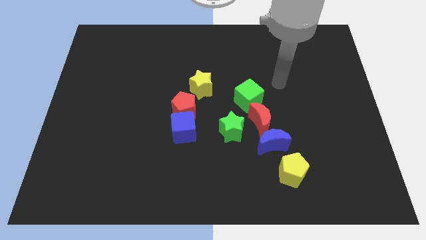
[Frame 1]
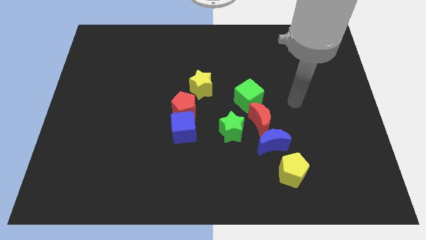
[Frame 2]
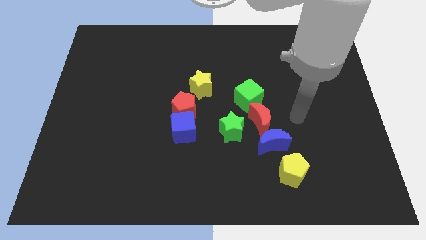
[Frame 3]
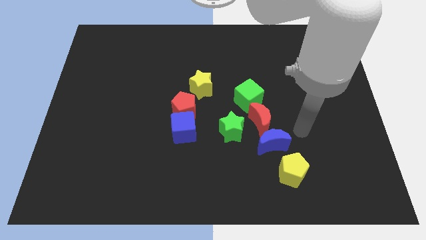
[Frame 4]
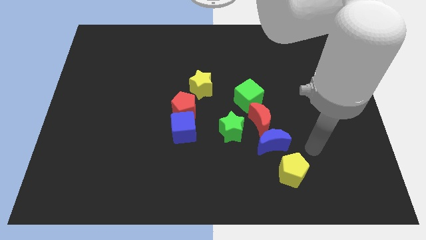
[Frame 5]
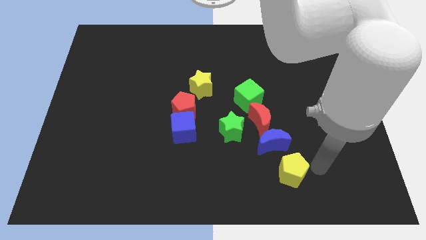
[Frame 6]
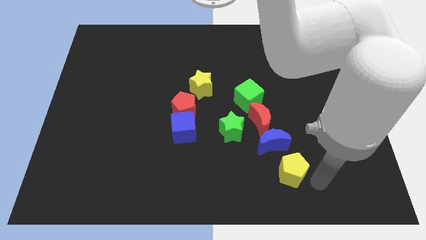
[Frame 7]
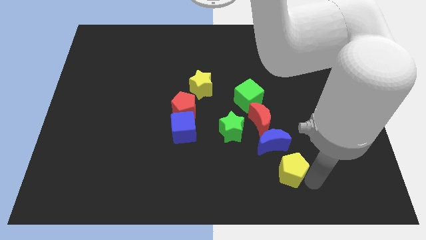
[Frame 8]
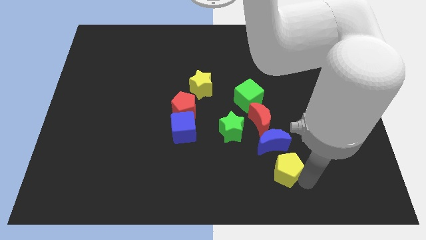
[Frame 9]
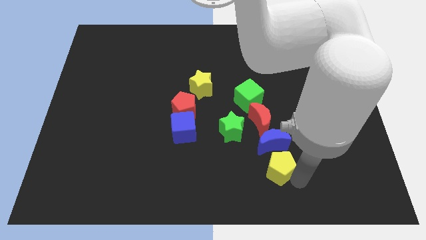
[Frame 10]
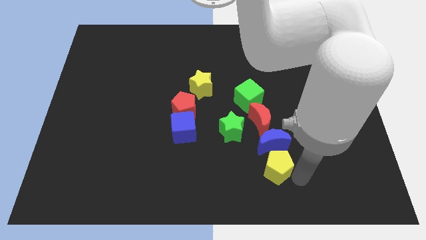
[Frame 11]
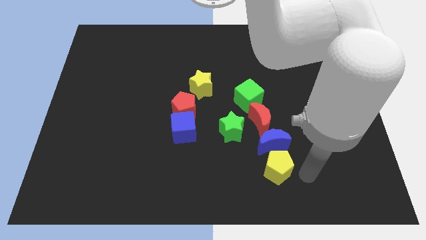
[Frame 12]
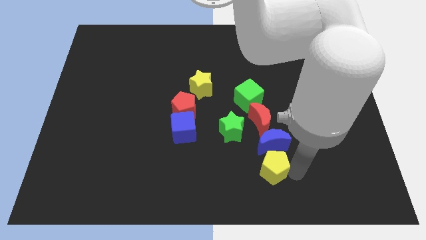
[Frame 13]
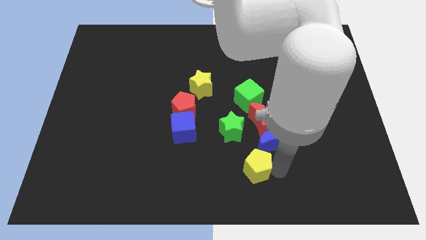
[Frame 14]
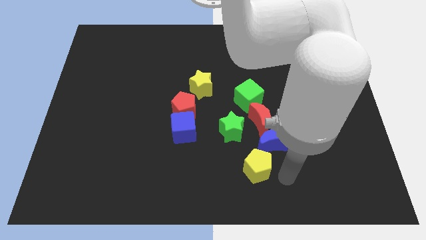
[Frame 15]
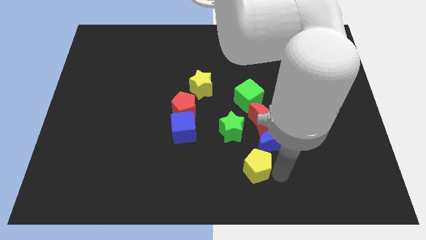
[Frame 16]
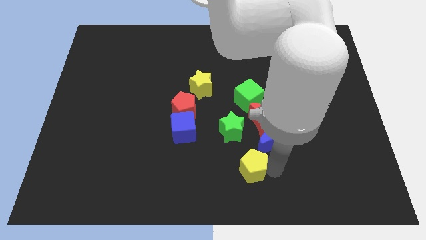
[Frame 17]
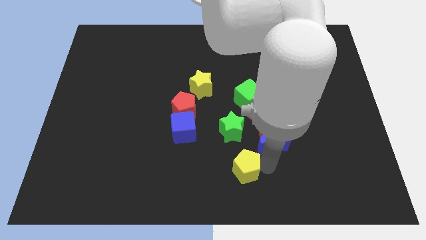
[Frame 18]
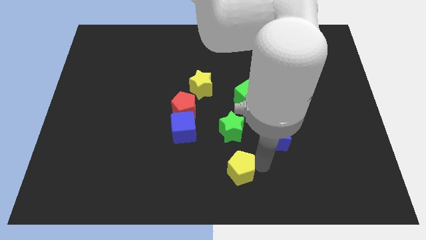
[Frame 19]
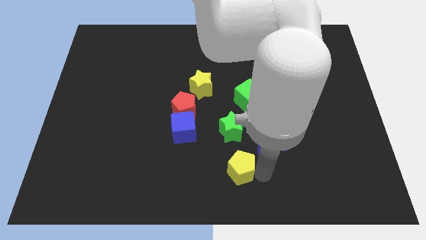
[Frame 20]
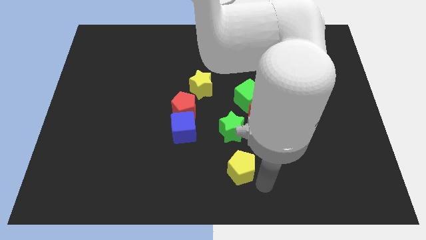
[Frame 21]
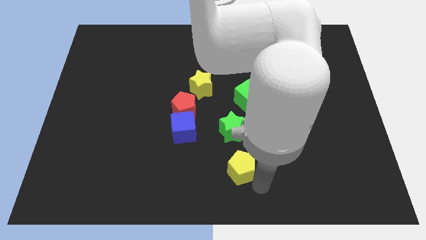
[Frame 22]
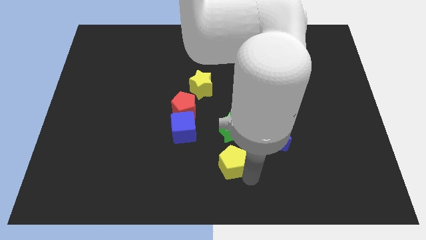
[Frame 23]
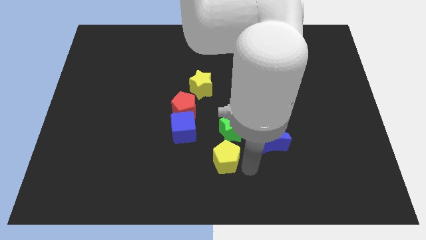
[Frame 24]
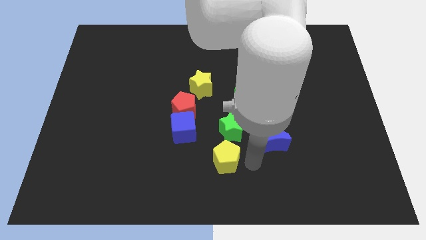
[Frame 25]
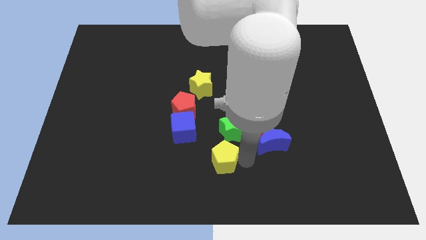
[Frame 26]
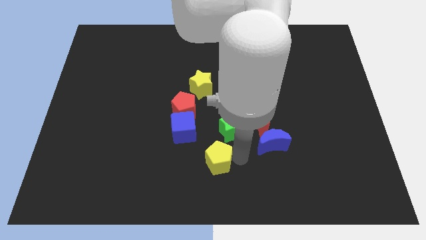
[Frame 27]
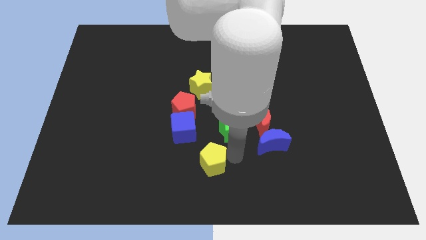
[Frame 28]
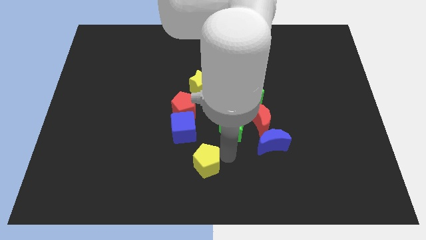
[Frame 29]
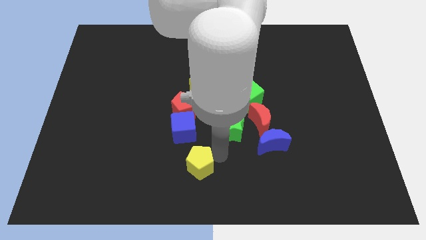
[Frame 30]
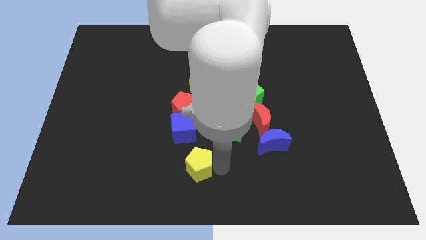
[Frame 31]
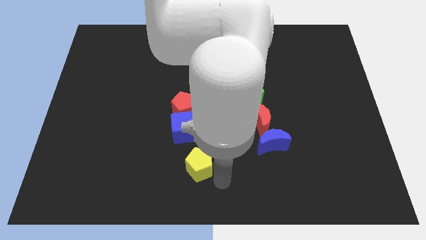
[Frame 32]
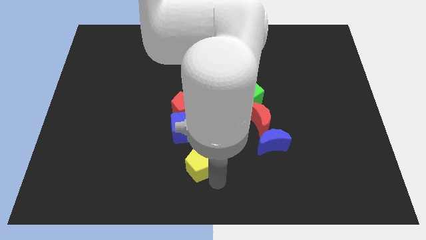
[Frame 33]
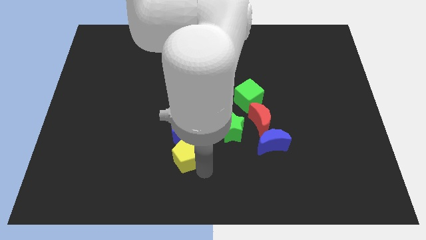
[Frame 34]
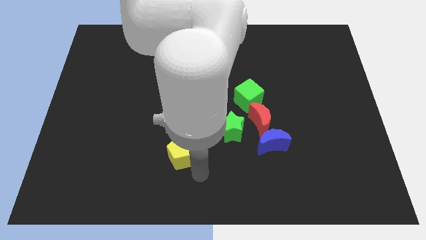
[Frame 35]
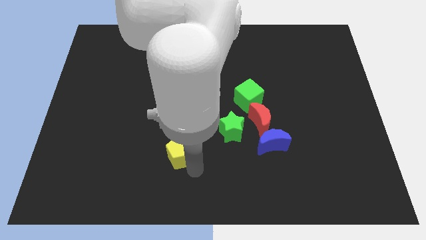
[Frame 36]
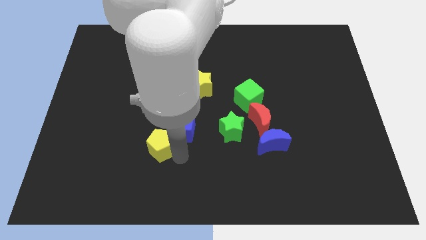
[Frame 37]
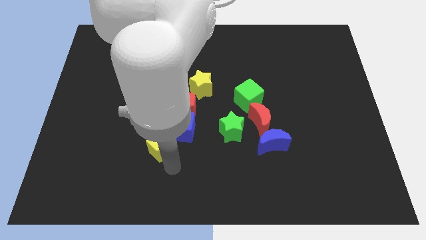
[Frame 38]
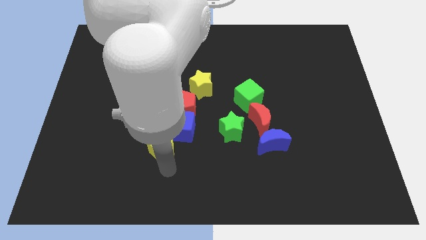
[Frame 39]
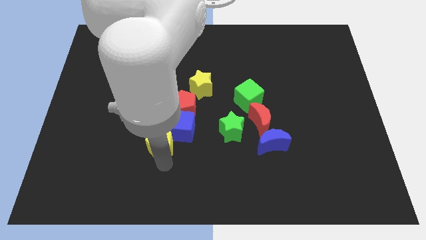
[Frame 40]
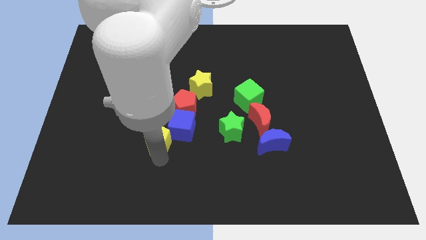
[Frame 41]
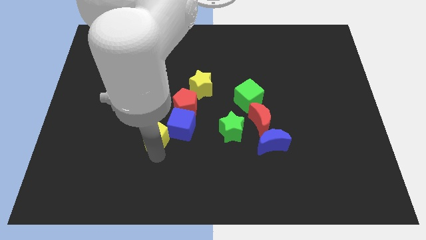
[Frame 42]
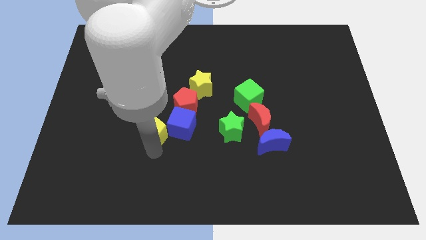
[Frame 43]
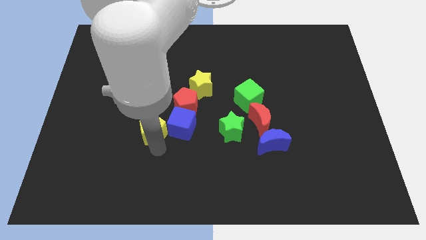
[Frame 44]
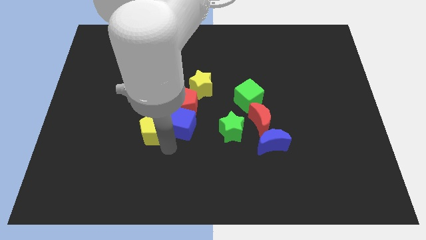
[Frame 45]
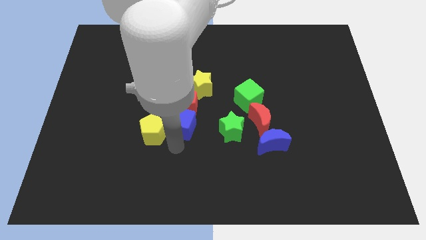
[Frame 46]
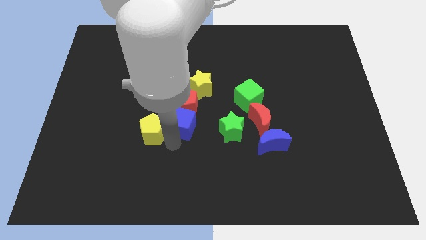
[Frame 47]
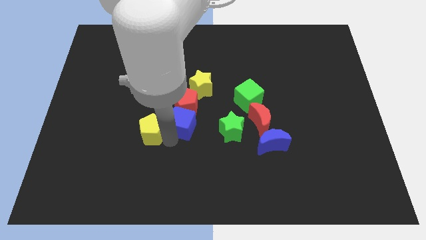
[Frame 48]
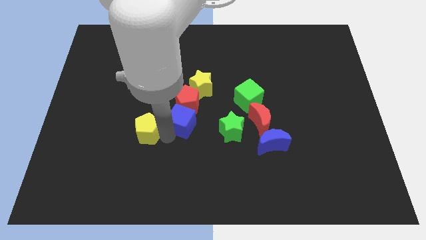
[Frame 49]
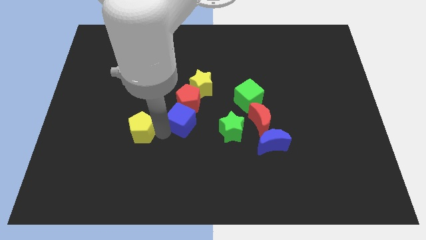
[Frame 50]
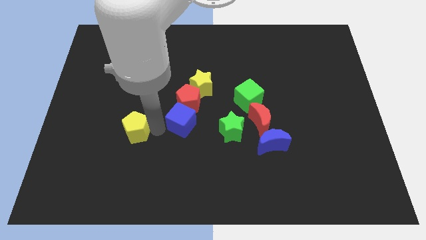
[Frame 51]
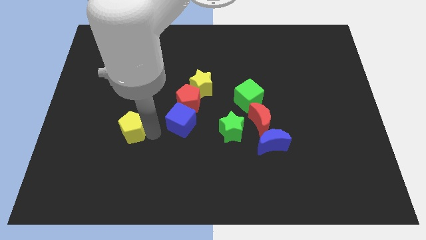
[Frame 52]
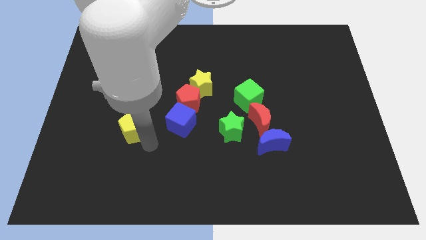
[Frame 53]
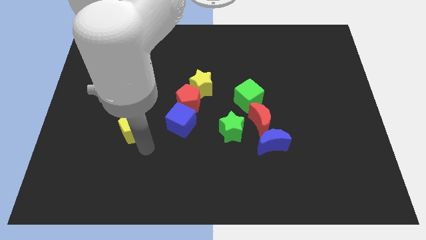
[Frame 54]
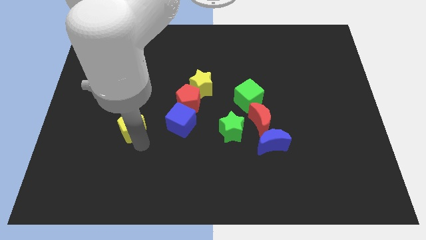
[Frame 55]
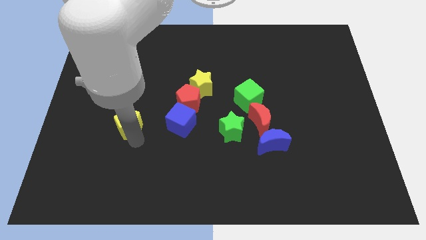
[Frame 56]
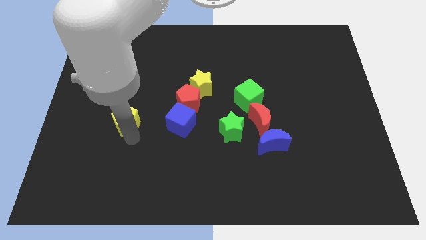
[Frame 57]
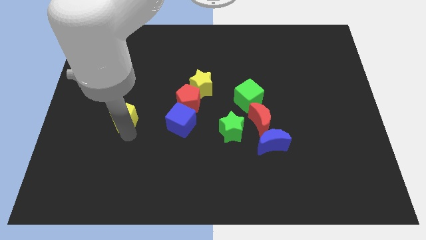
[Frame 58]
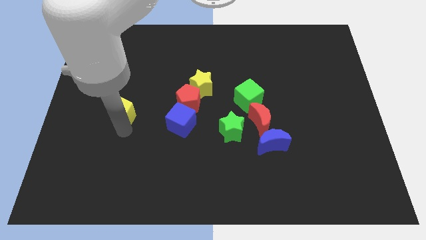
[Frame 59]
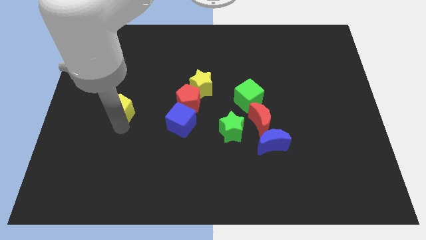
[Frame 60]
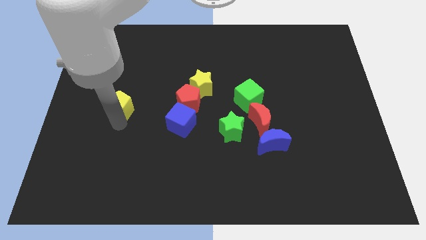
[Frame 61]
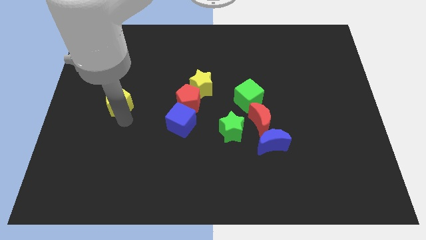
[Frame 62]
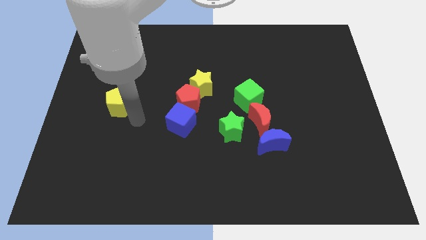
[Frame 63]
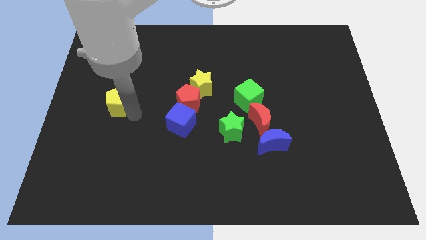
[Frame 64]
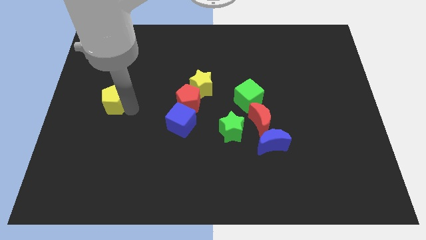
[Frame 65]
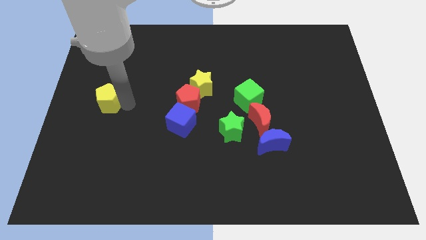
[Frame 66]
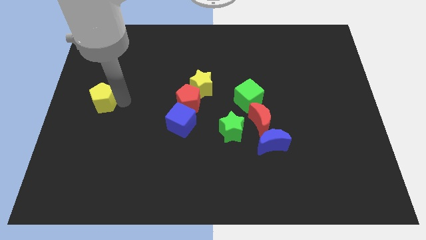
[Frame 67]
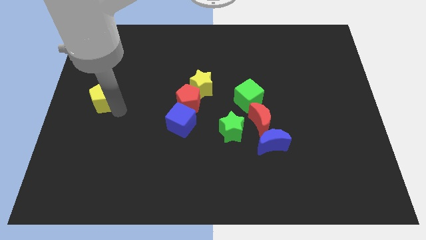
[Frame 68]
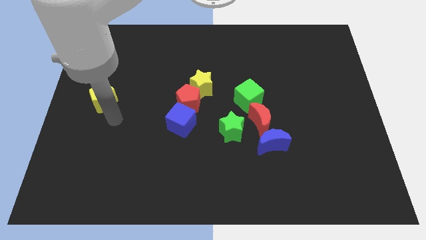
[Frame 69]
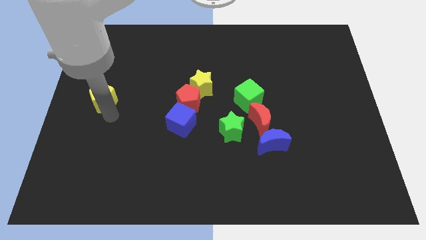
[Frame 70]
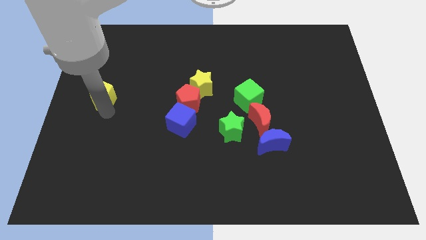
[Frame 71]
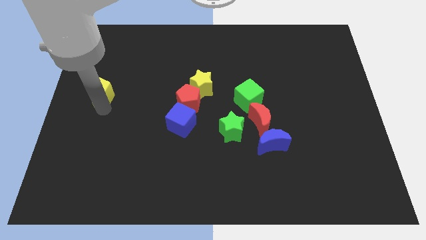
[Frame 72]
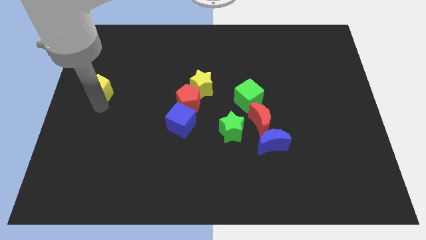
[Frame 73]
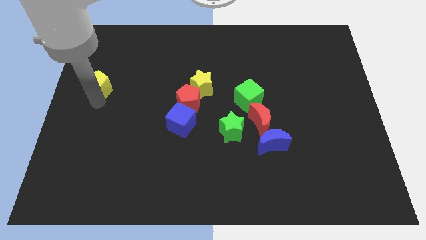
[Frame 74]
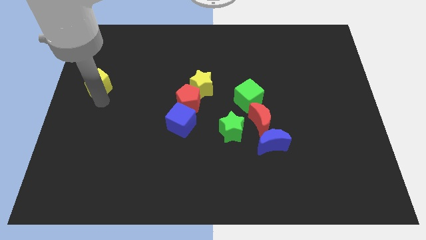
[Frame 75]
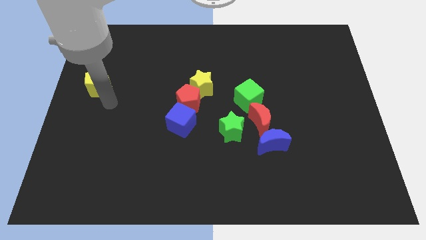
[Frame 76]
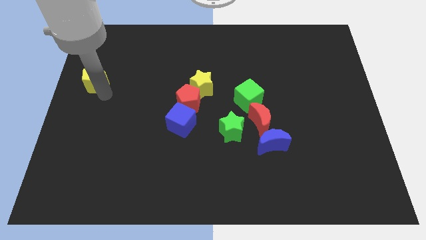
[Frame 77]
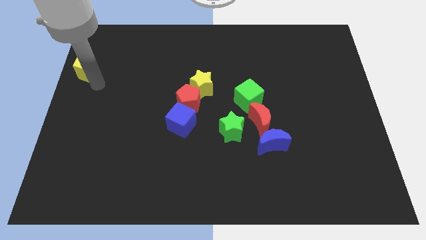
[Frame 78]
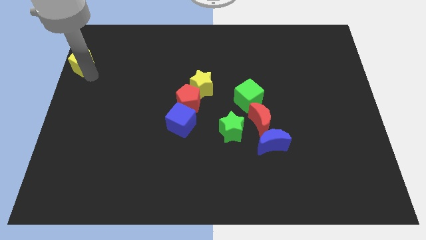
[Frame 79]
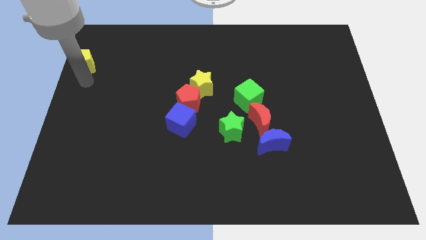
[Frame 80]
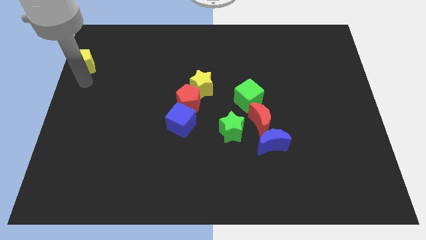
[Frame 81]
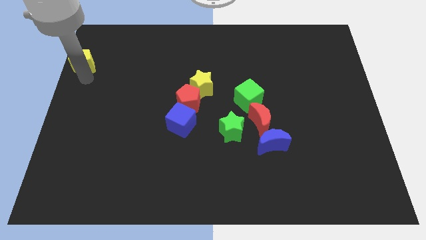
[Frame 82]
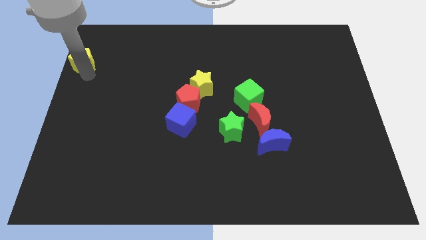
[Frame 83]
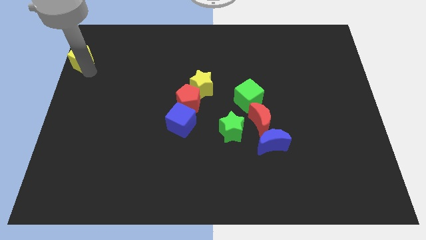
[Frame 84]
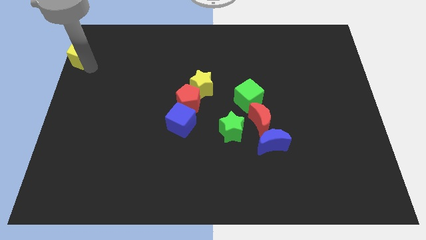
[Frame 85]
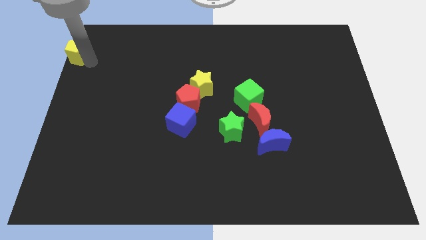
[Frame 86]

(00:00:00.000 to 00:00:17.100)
put the yellow pentagon to the upper left corner
